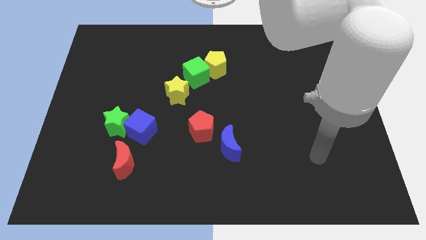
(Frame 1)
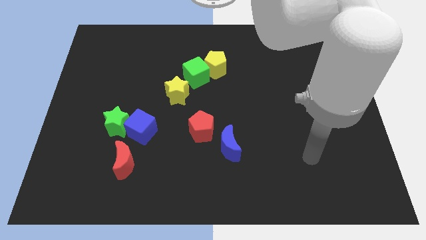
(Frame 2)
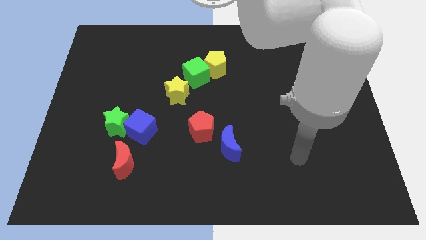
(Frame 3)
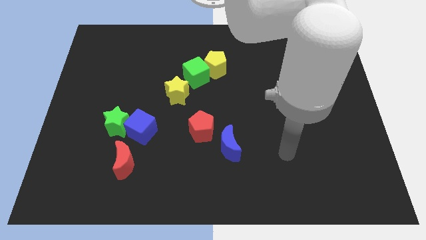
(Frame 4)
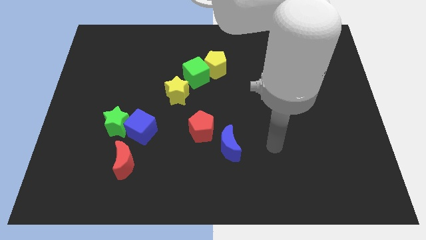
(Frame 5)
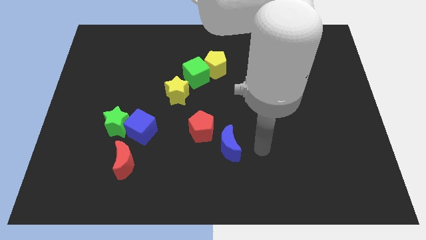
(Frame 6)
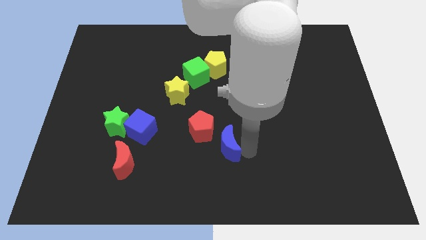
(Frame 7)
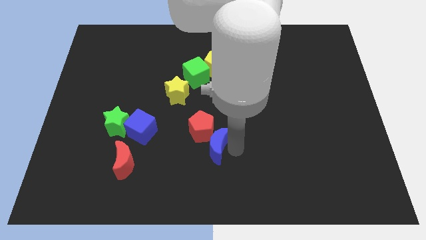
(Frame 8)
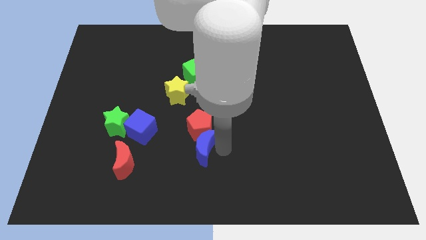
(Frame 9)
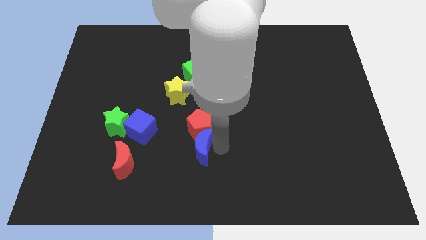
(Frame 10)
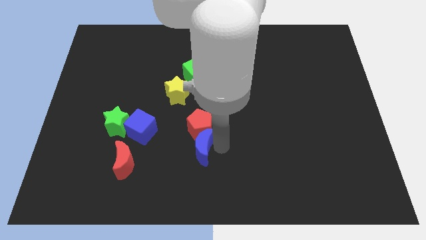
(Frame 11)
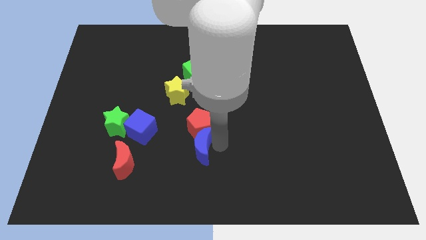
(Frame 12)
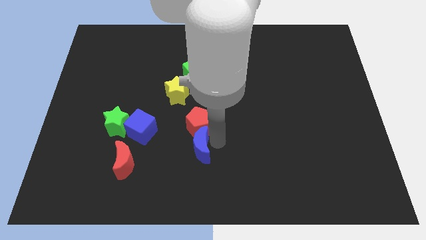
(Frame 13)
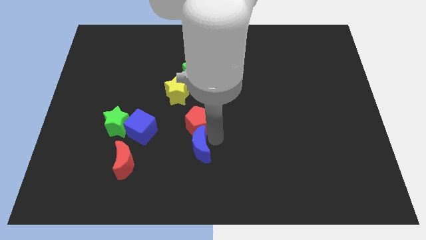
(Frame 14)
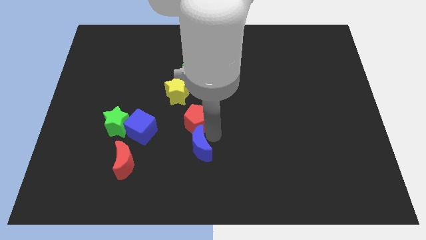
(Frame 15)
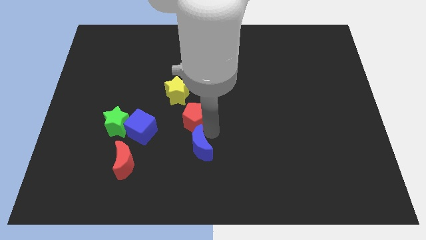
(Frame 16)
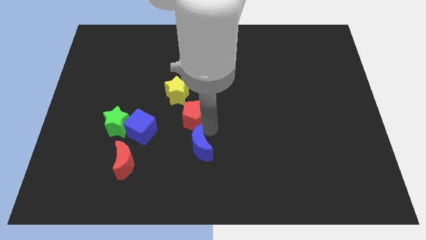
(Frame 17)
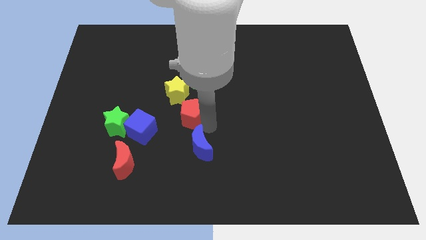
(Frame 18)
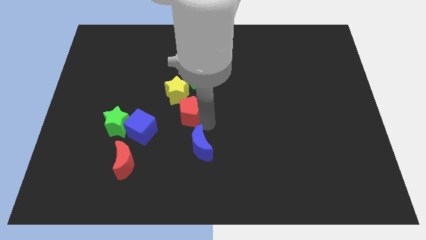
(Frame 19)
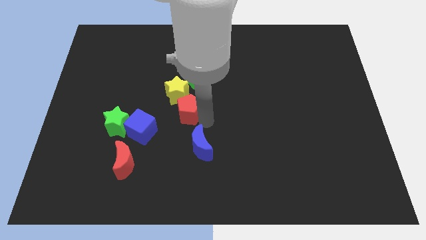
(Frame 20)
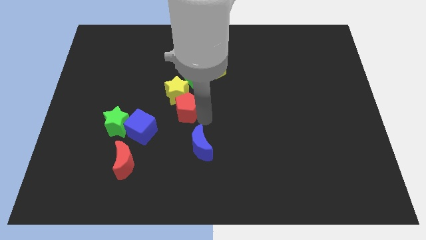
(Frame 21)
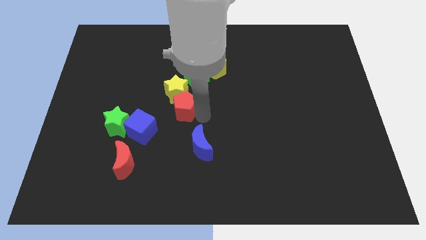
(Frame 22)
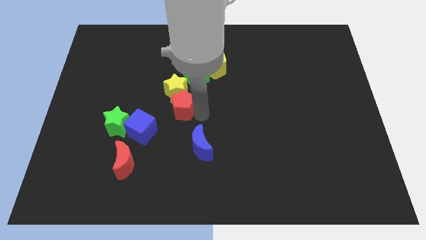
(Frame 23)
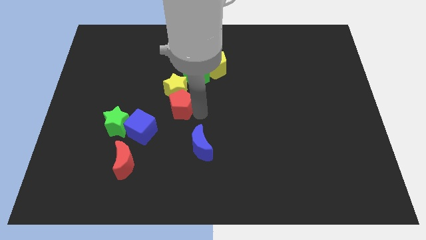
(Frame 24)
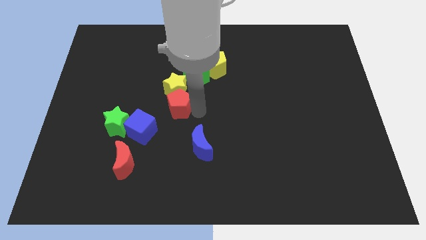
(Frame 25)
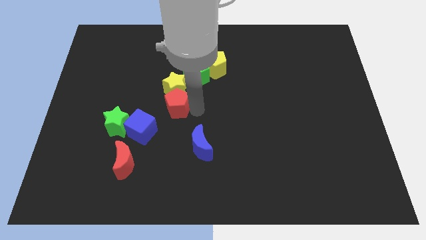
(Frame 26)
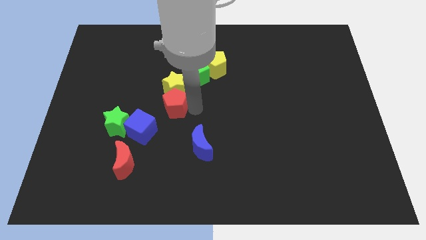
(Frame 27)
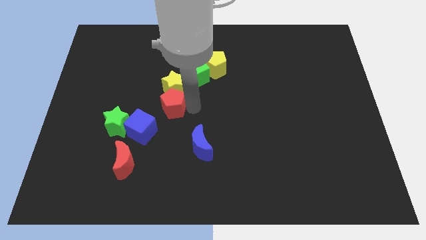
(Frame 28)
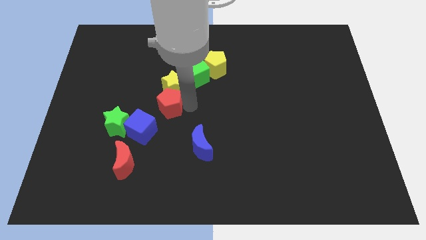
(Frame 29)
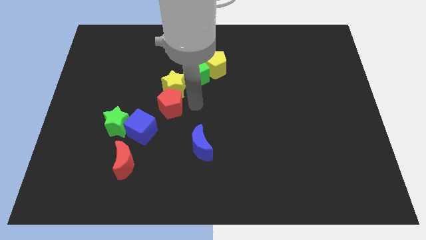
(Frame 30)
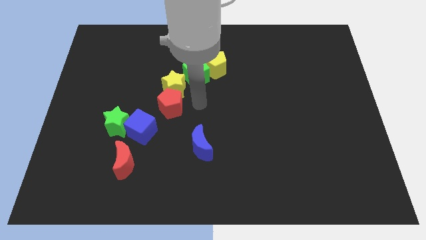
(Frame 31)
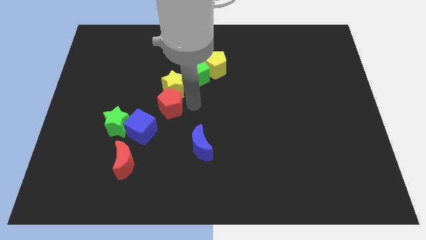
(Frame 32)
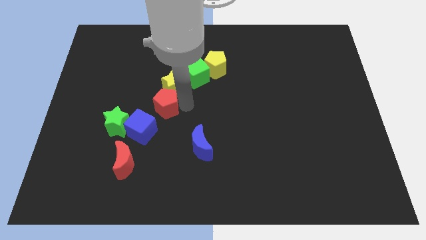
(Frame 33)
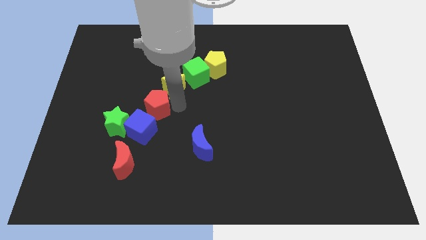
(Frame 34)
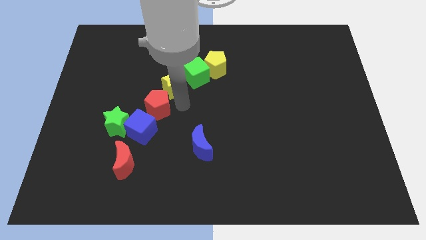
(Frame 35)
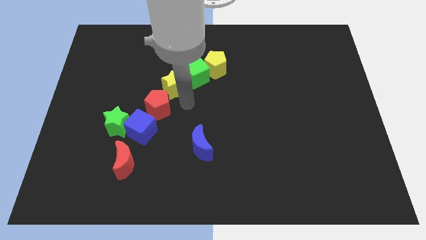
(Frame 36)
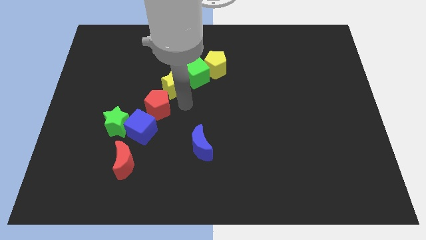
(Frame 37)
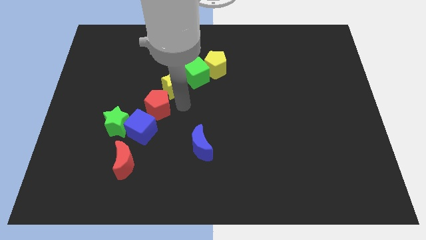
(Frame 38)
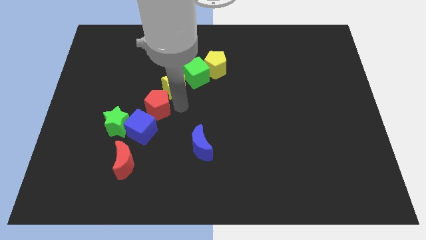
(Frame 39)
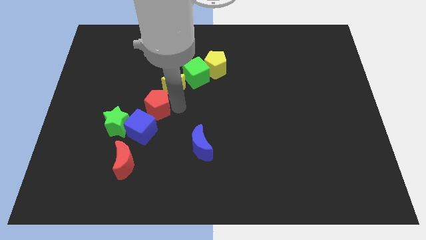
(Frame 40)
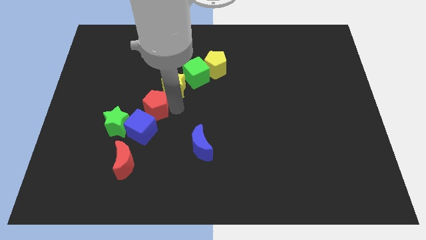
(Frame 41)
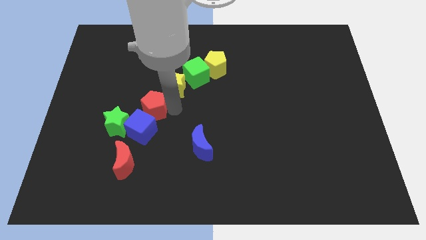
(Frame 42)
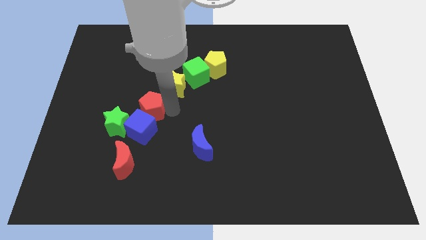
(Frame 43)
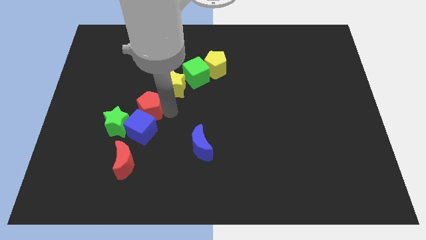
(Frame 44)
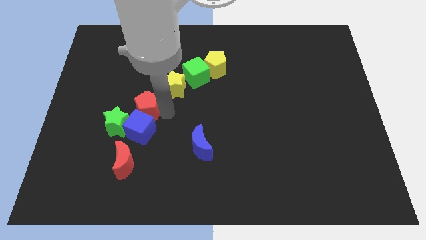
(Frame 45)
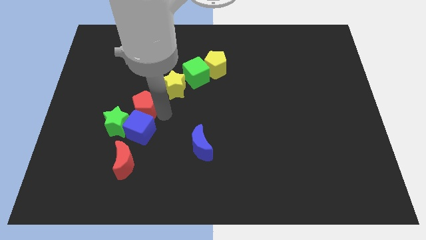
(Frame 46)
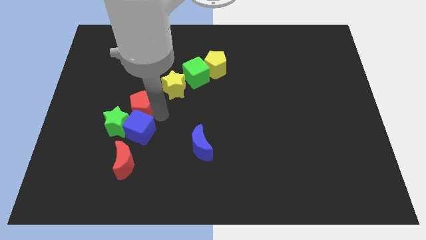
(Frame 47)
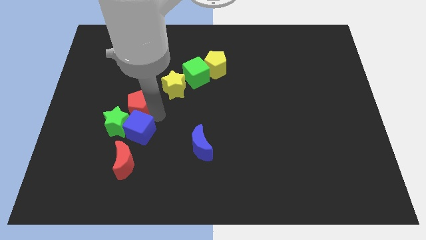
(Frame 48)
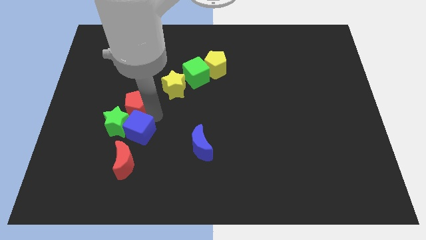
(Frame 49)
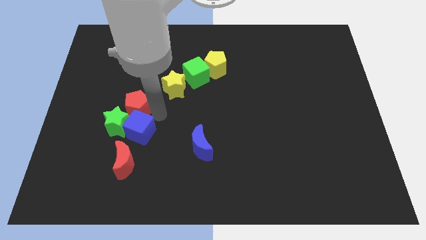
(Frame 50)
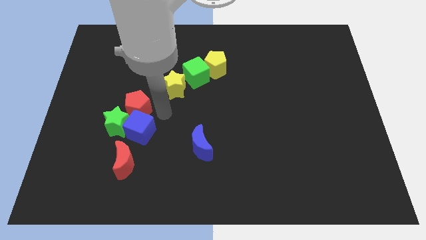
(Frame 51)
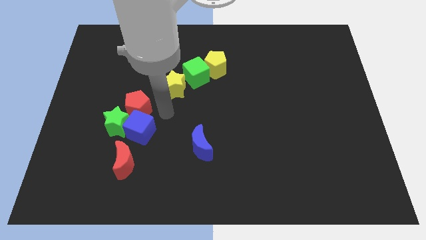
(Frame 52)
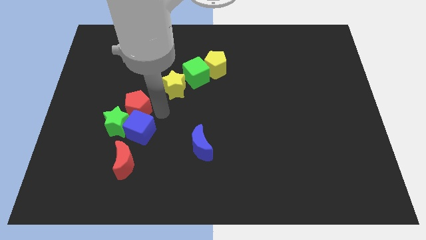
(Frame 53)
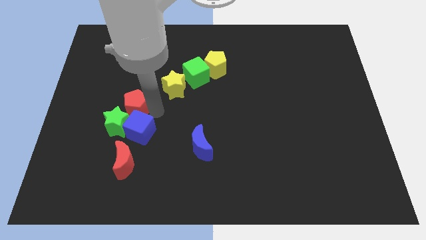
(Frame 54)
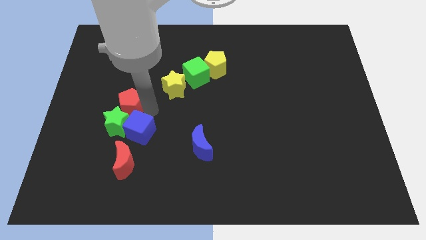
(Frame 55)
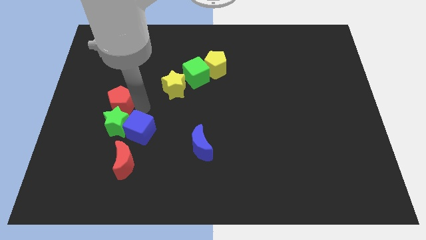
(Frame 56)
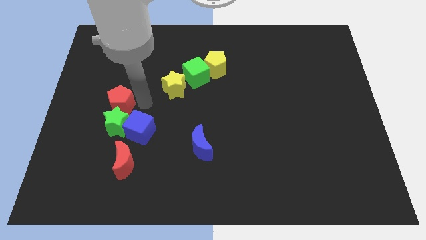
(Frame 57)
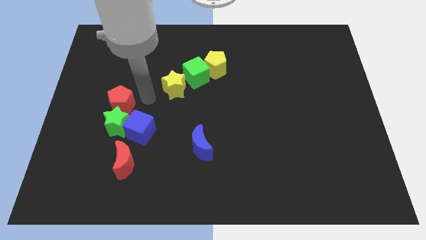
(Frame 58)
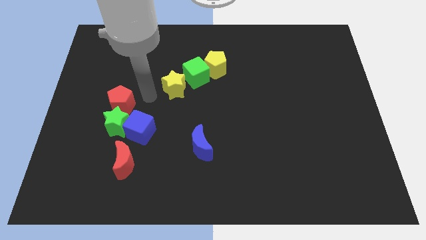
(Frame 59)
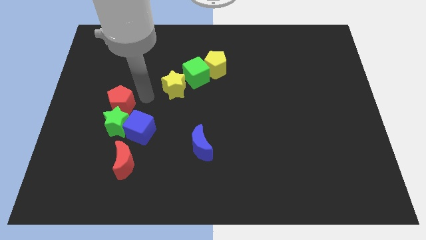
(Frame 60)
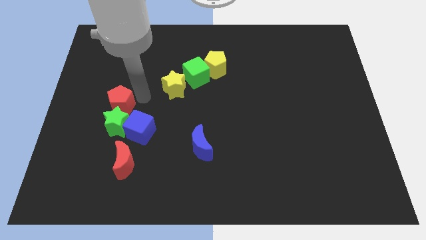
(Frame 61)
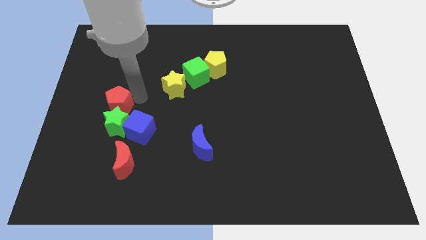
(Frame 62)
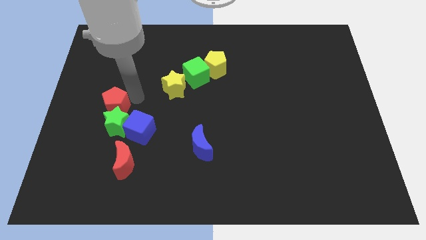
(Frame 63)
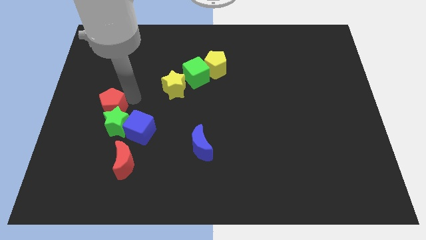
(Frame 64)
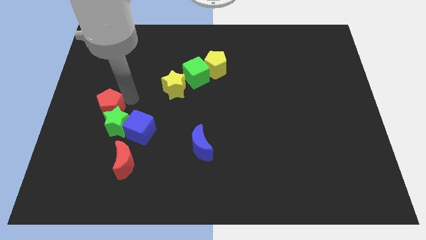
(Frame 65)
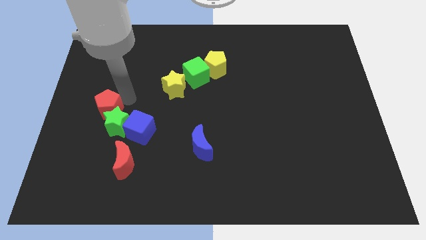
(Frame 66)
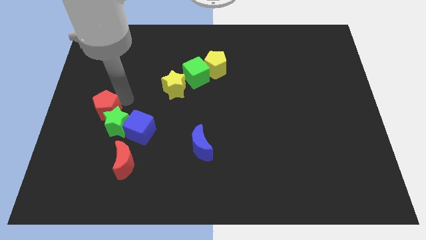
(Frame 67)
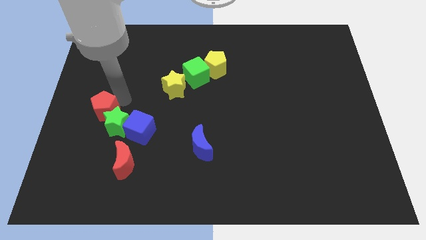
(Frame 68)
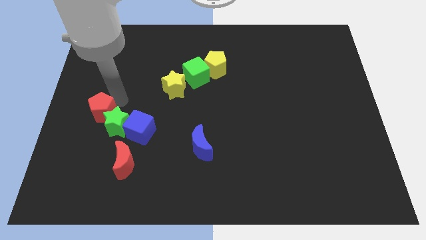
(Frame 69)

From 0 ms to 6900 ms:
push the red pentagon to the center left
